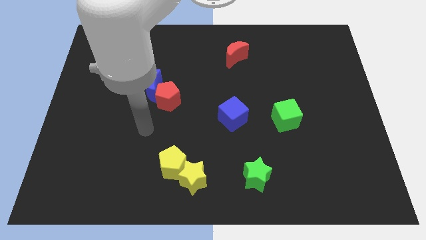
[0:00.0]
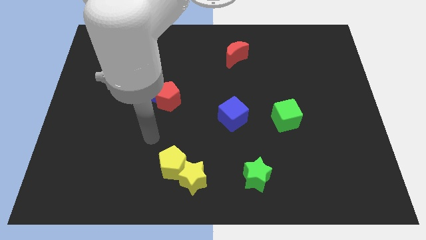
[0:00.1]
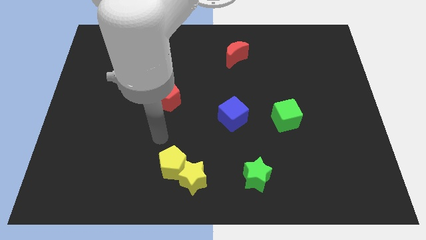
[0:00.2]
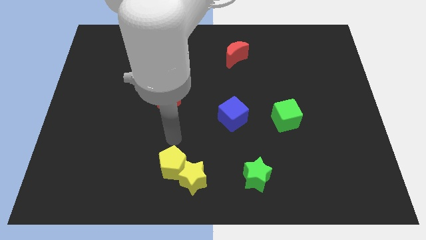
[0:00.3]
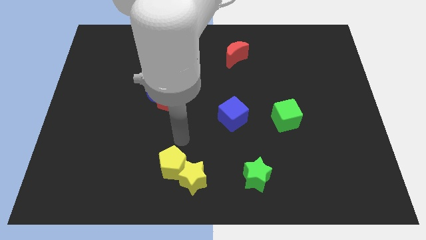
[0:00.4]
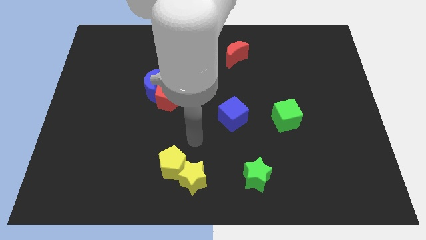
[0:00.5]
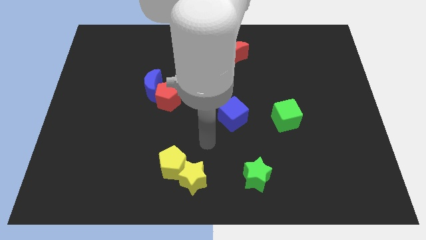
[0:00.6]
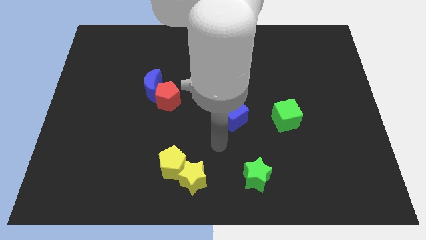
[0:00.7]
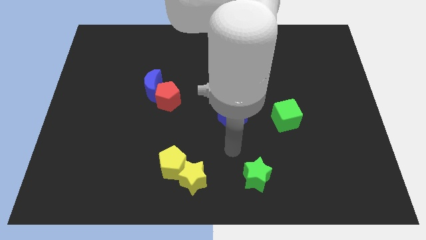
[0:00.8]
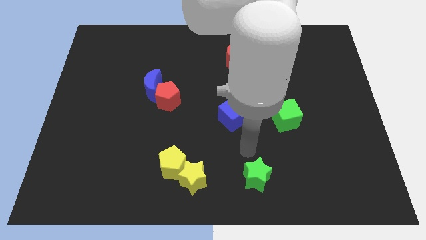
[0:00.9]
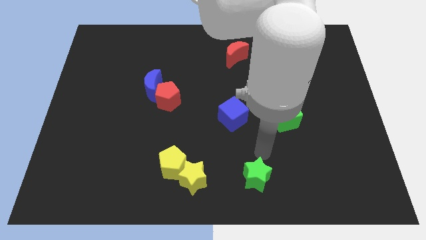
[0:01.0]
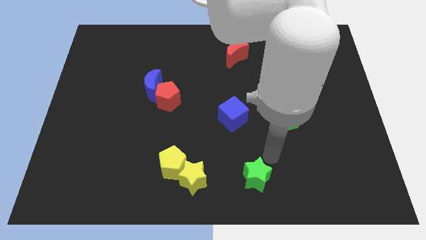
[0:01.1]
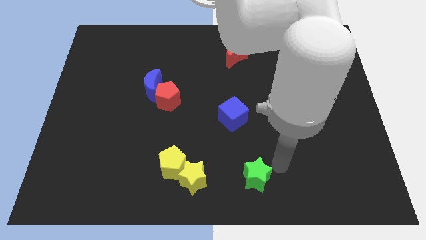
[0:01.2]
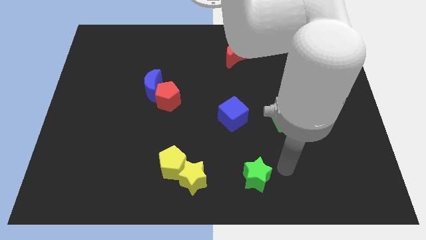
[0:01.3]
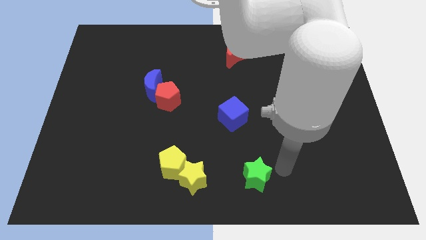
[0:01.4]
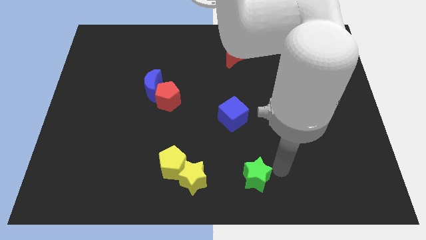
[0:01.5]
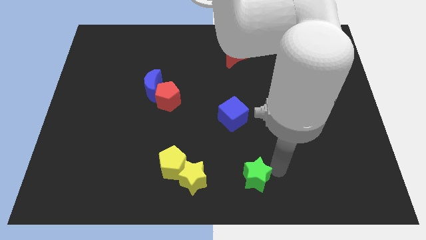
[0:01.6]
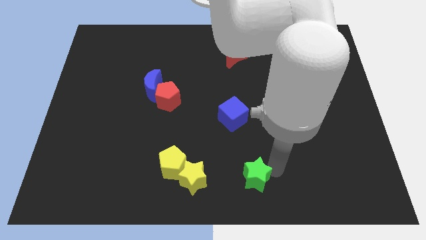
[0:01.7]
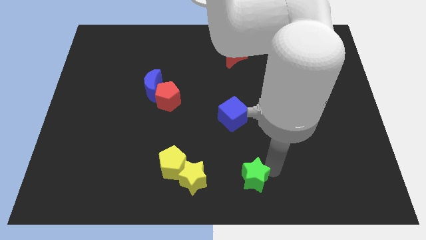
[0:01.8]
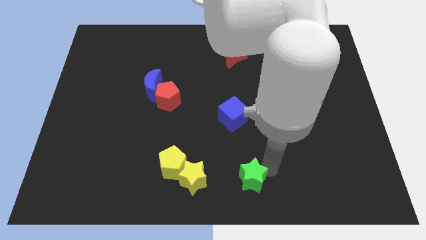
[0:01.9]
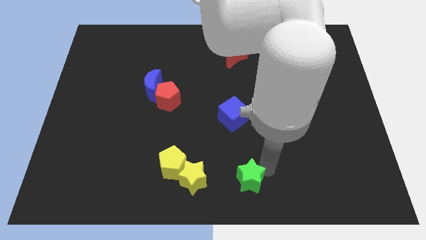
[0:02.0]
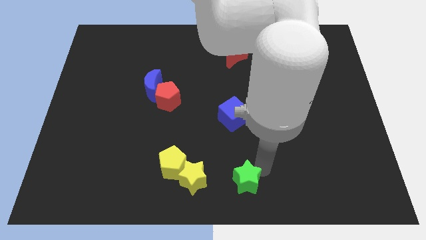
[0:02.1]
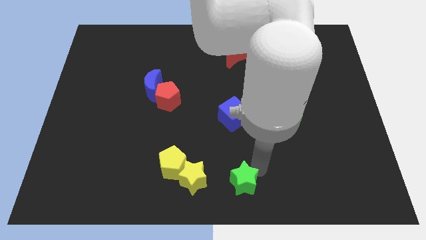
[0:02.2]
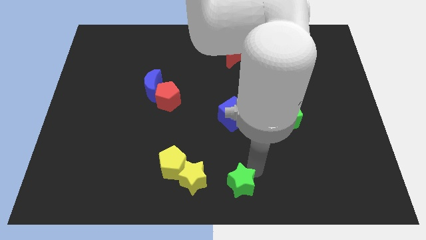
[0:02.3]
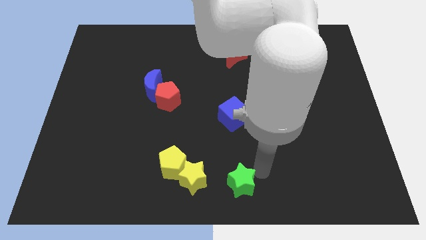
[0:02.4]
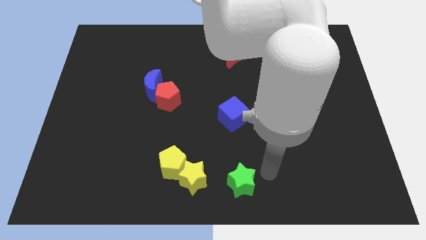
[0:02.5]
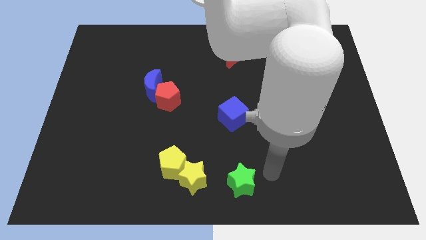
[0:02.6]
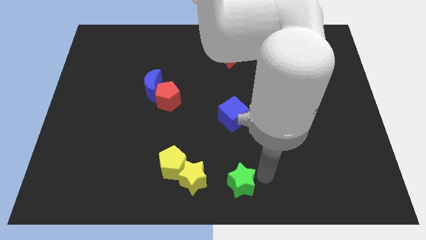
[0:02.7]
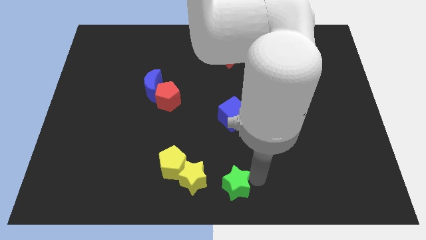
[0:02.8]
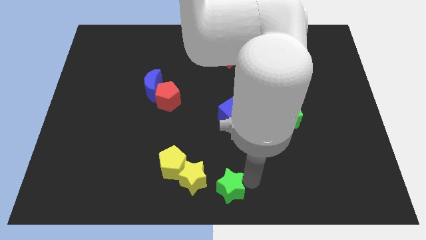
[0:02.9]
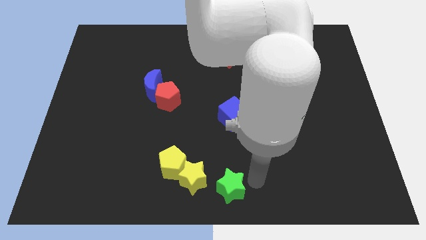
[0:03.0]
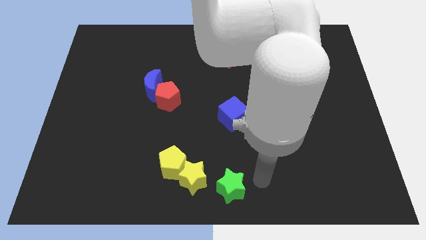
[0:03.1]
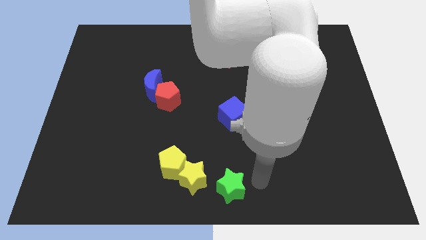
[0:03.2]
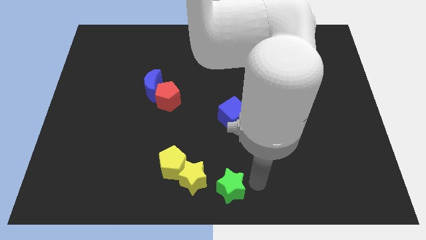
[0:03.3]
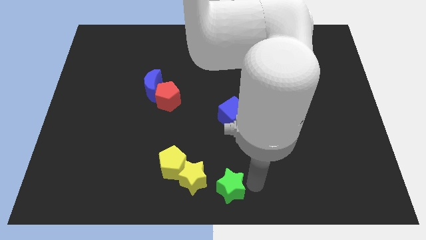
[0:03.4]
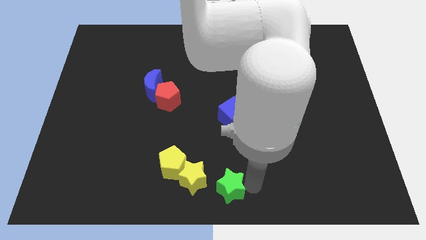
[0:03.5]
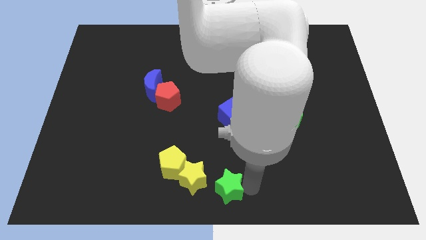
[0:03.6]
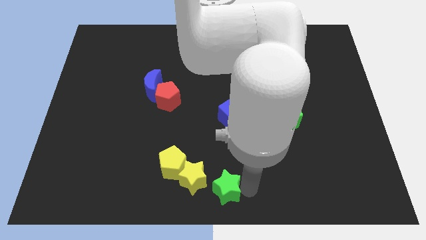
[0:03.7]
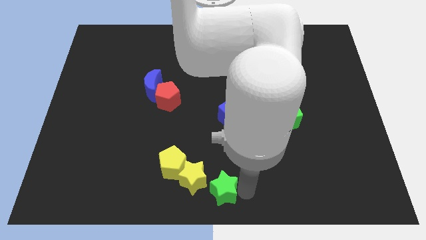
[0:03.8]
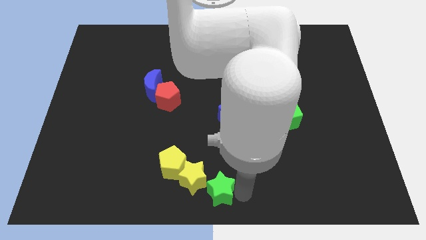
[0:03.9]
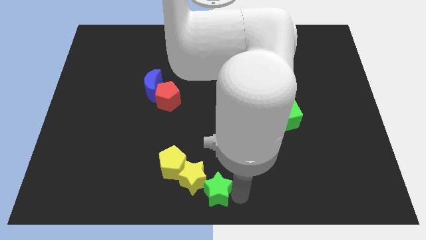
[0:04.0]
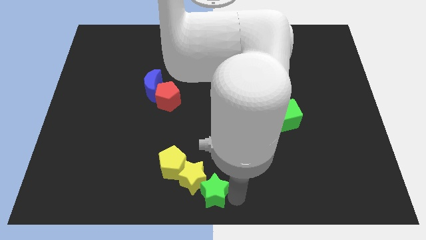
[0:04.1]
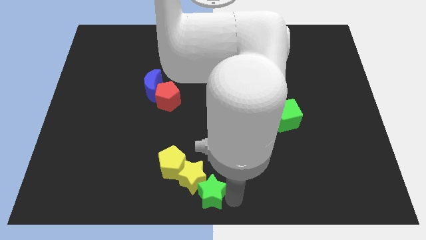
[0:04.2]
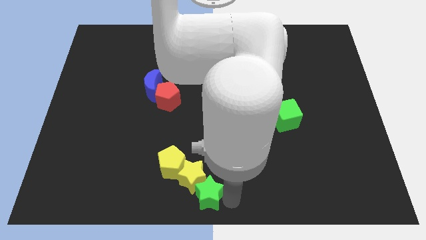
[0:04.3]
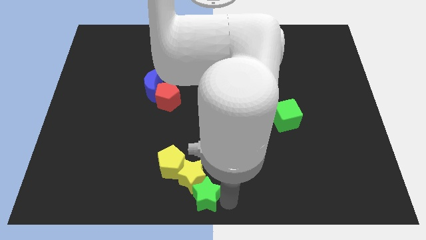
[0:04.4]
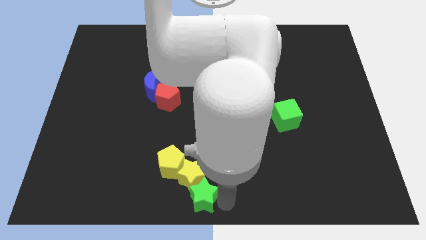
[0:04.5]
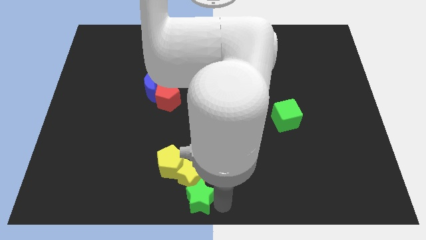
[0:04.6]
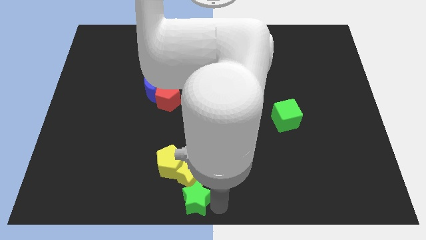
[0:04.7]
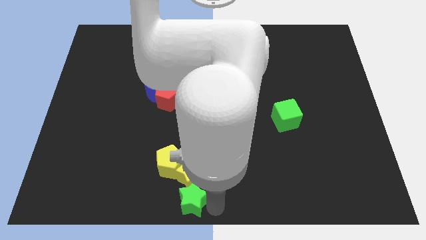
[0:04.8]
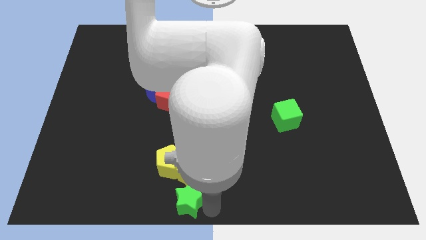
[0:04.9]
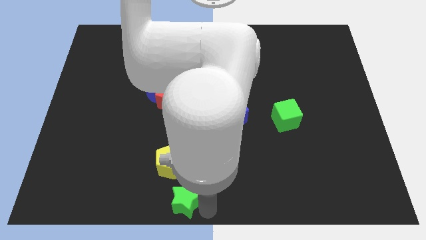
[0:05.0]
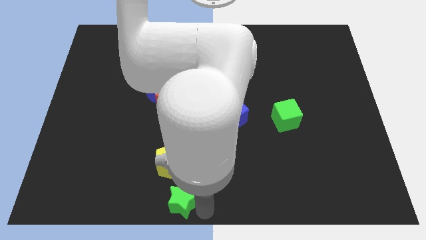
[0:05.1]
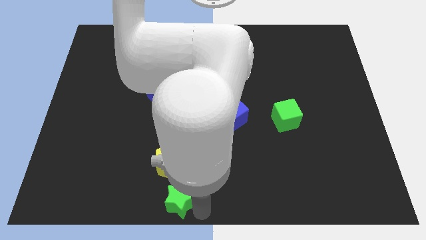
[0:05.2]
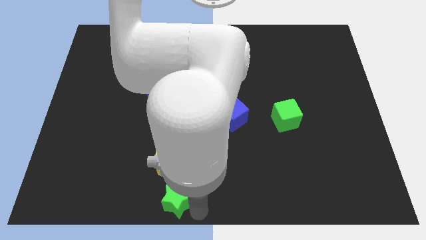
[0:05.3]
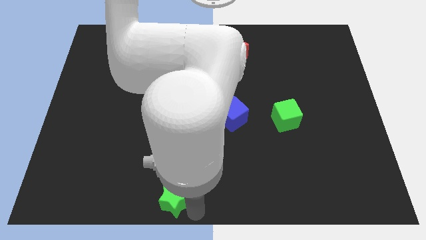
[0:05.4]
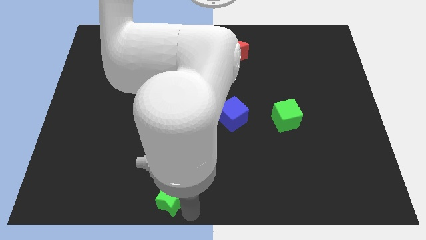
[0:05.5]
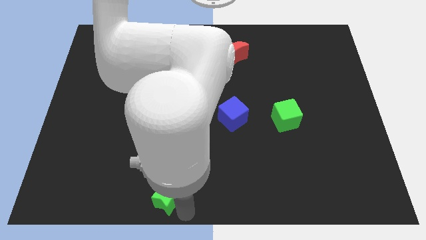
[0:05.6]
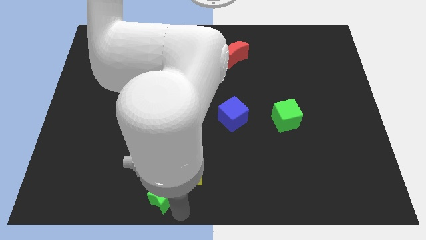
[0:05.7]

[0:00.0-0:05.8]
push the green star to the left of the yellow star
